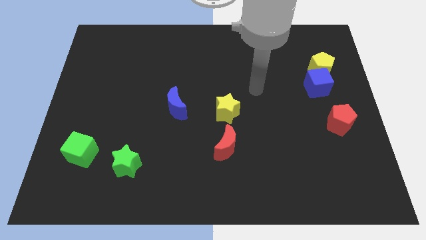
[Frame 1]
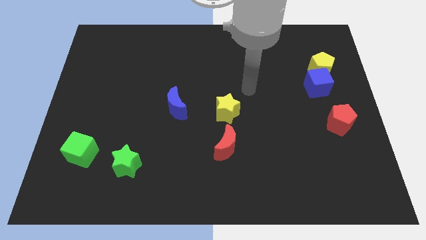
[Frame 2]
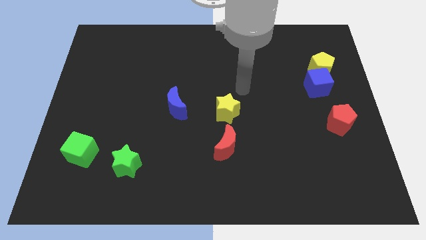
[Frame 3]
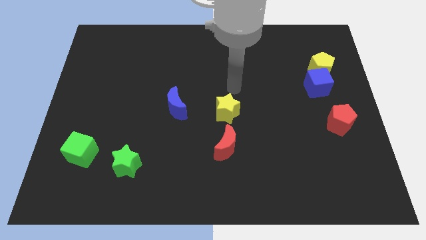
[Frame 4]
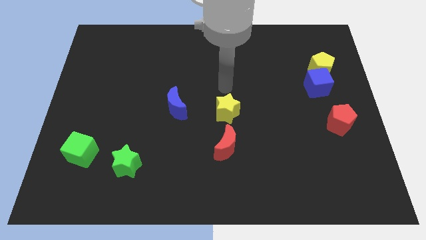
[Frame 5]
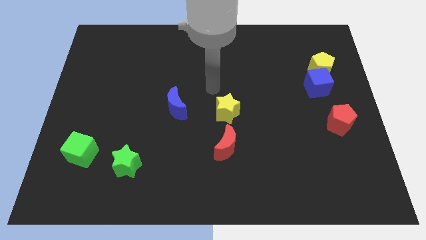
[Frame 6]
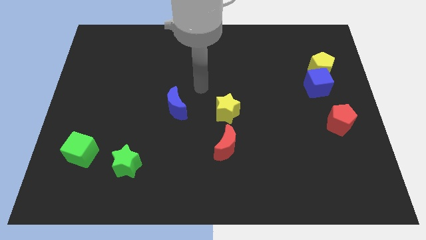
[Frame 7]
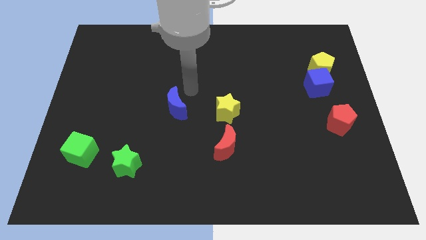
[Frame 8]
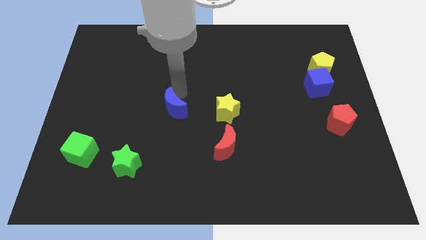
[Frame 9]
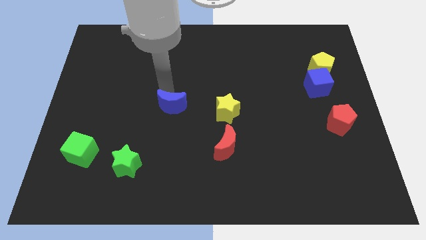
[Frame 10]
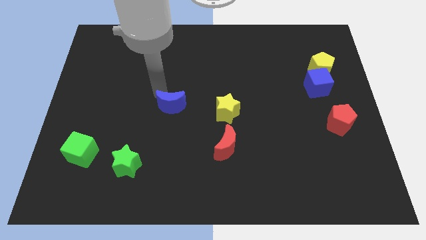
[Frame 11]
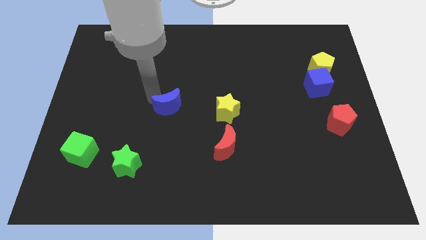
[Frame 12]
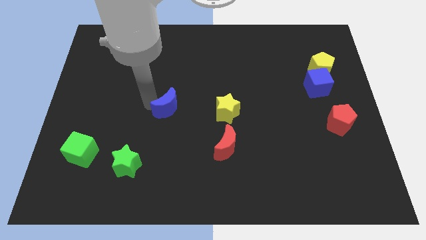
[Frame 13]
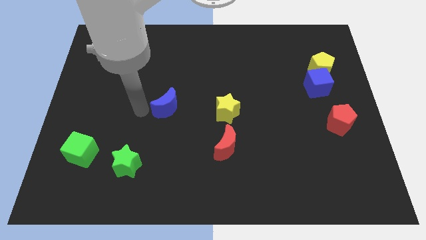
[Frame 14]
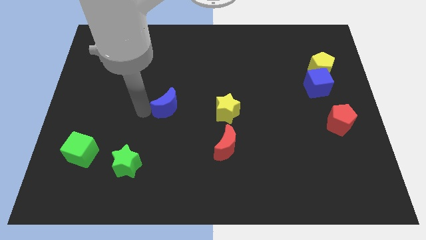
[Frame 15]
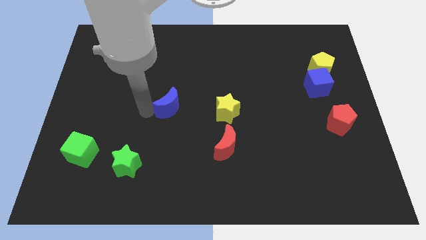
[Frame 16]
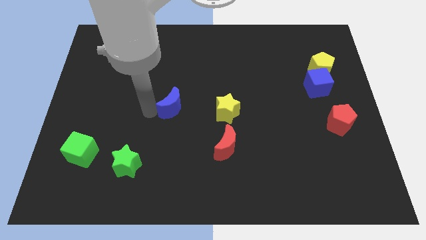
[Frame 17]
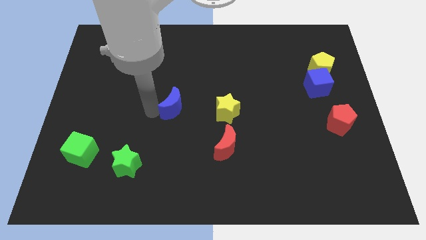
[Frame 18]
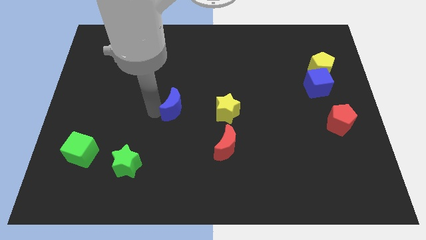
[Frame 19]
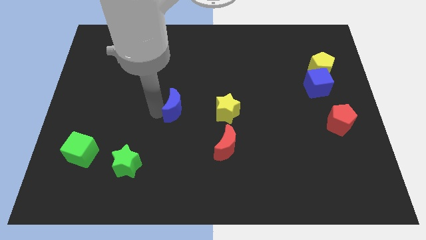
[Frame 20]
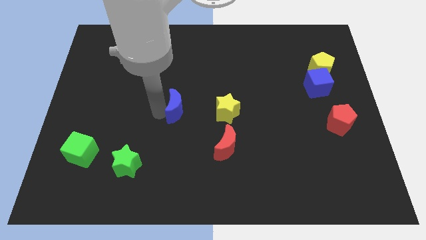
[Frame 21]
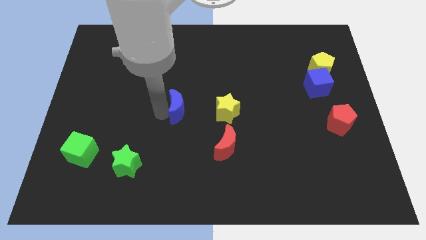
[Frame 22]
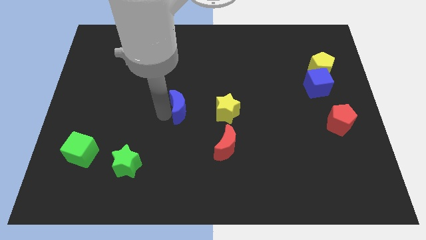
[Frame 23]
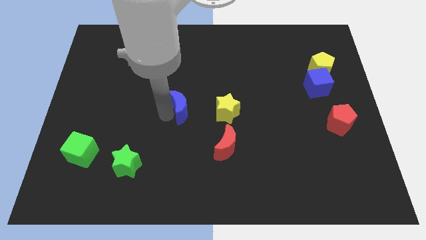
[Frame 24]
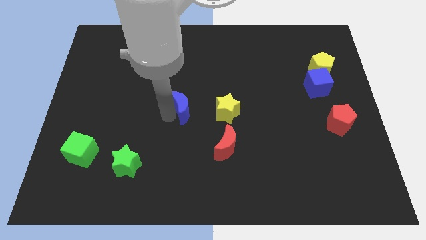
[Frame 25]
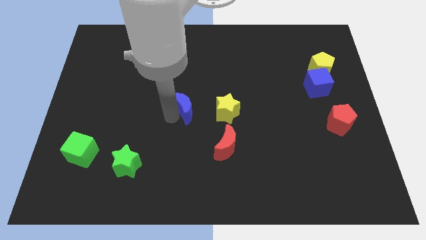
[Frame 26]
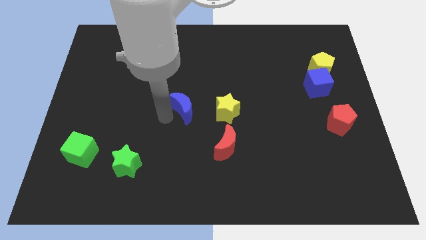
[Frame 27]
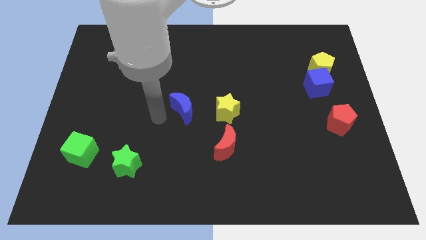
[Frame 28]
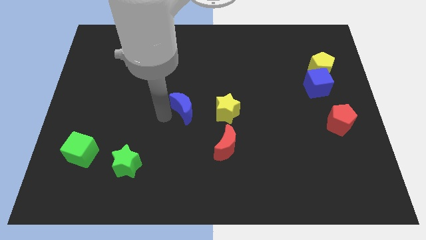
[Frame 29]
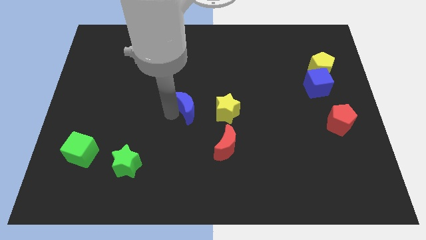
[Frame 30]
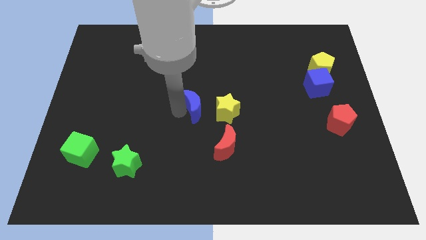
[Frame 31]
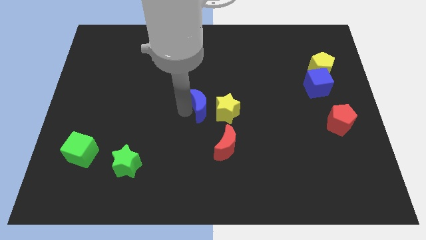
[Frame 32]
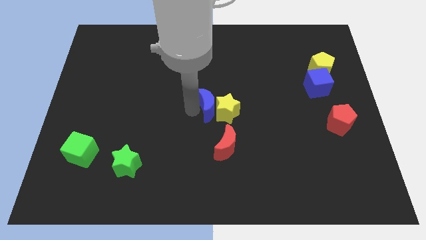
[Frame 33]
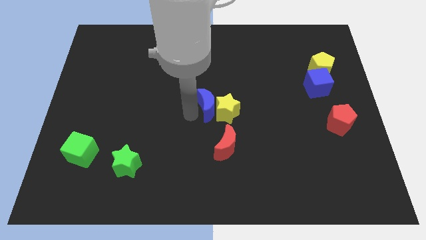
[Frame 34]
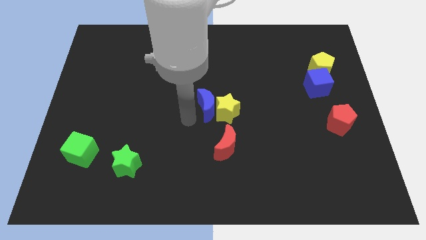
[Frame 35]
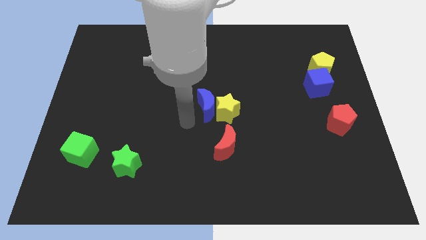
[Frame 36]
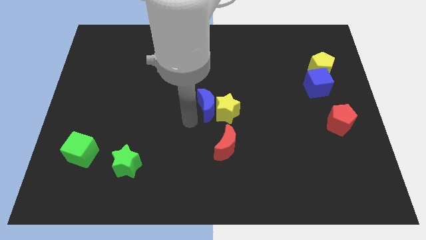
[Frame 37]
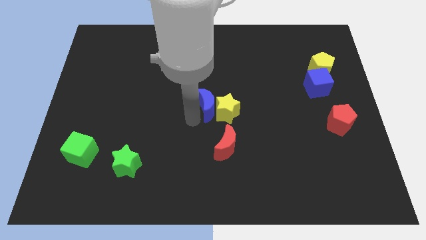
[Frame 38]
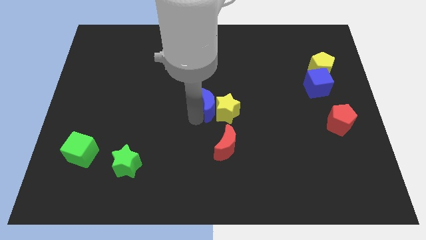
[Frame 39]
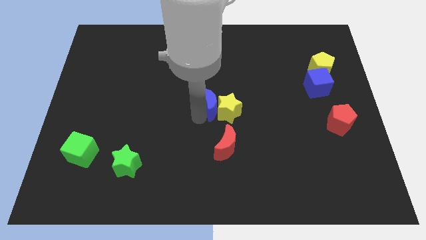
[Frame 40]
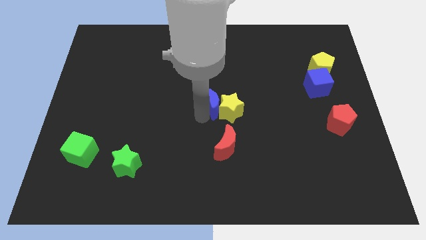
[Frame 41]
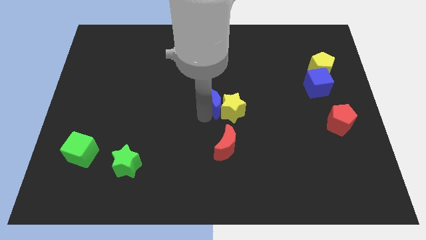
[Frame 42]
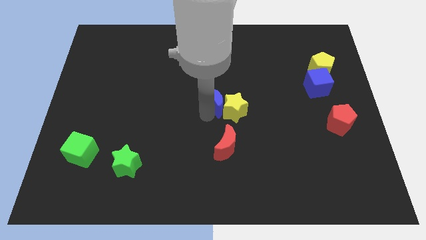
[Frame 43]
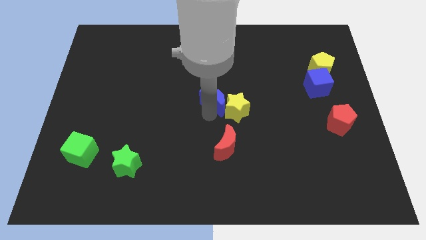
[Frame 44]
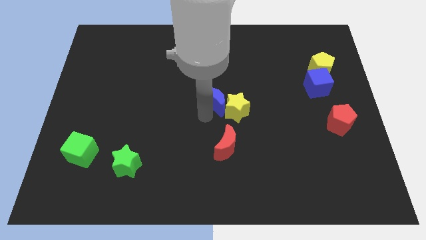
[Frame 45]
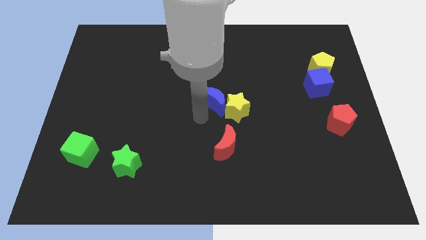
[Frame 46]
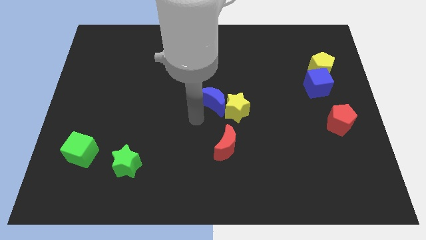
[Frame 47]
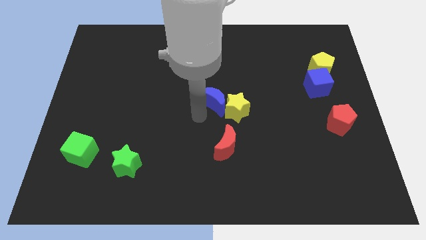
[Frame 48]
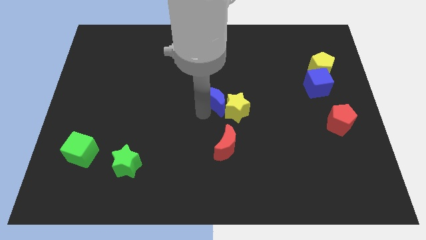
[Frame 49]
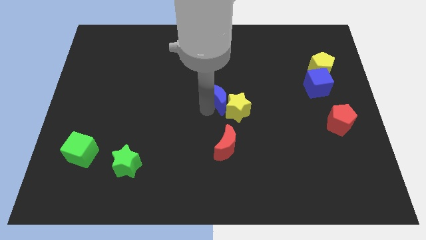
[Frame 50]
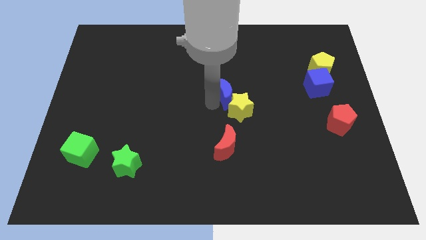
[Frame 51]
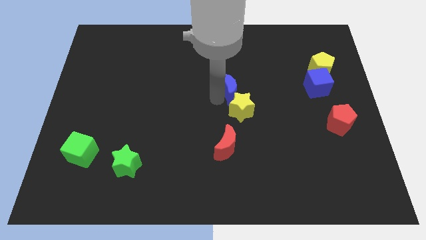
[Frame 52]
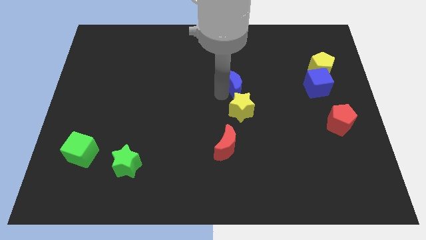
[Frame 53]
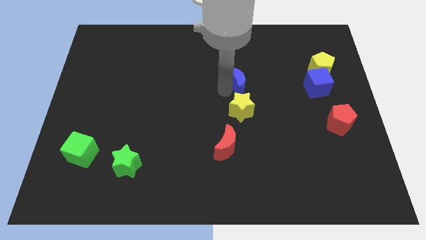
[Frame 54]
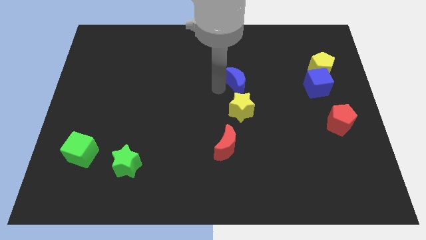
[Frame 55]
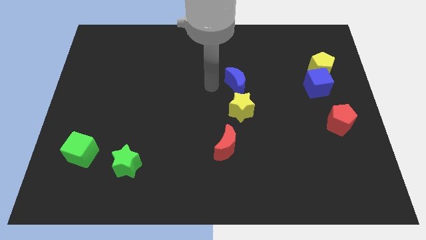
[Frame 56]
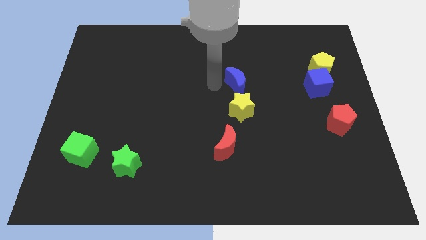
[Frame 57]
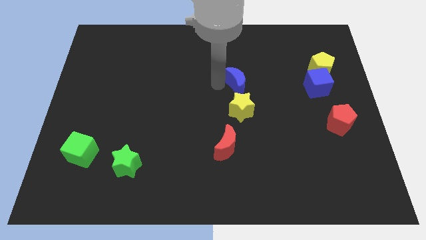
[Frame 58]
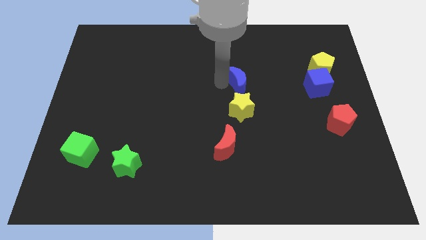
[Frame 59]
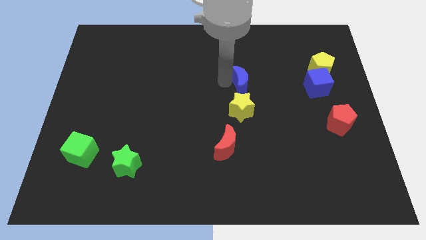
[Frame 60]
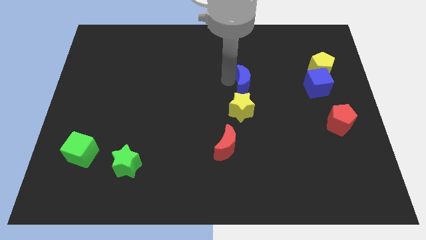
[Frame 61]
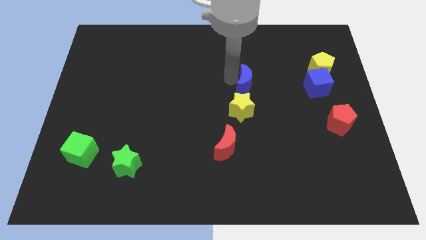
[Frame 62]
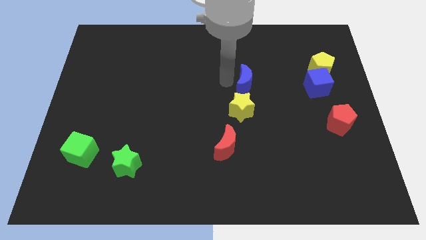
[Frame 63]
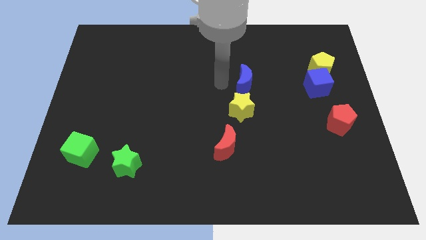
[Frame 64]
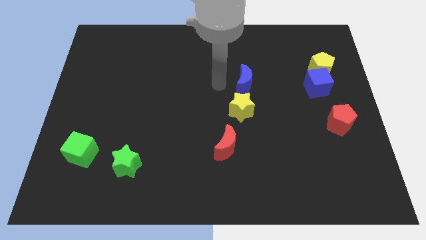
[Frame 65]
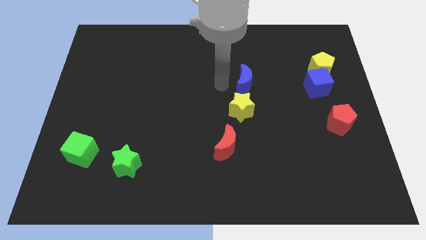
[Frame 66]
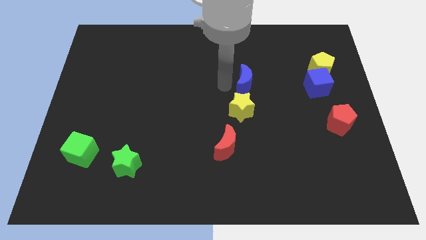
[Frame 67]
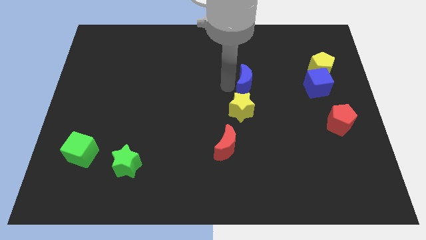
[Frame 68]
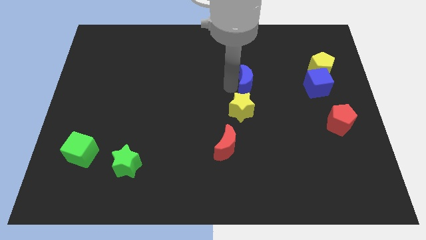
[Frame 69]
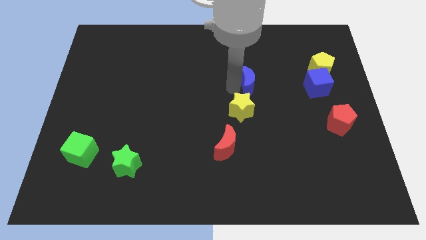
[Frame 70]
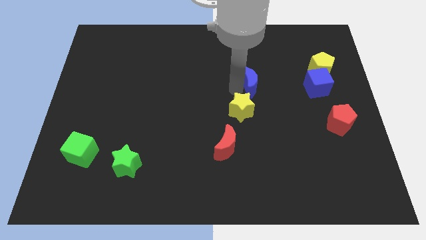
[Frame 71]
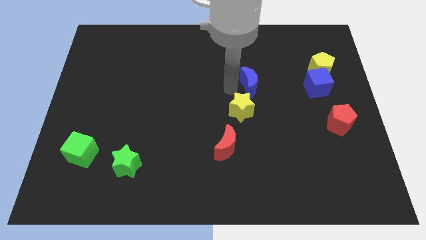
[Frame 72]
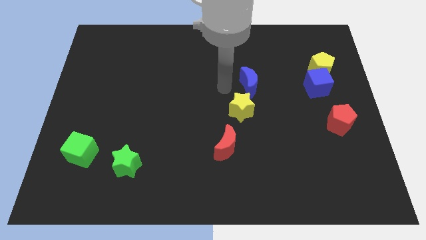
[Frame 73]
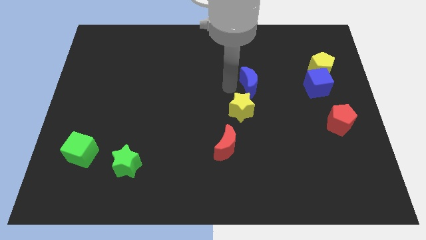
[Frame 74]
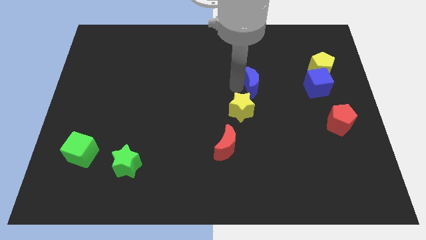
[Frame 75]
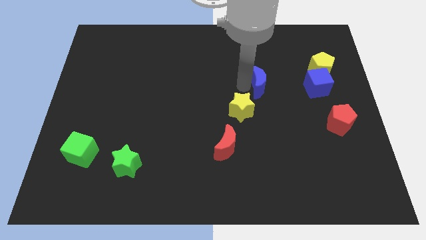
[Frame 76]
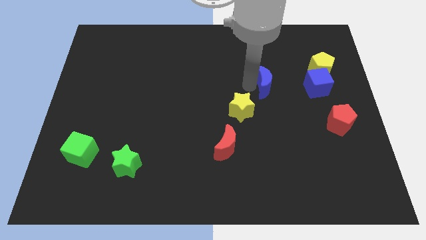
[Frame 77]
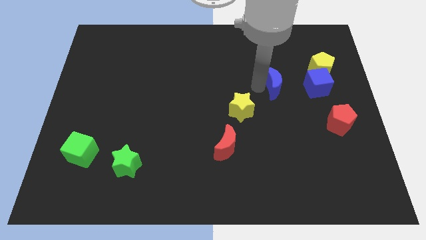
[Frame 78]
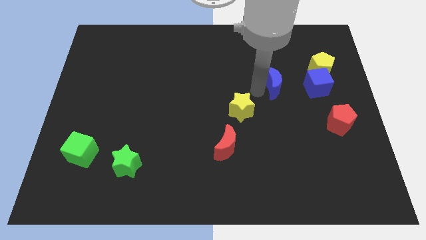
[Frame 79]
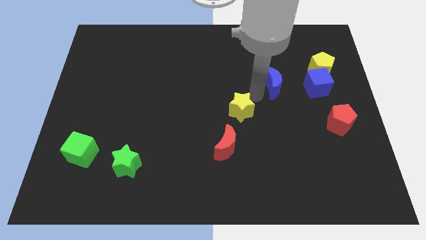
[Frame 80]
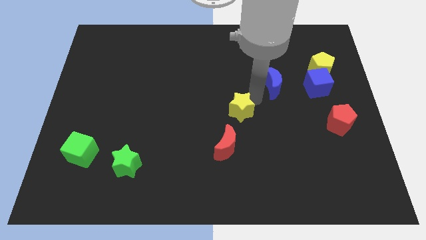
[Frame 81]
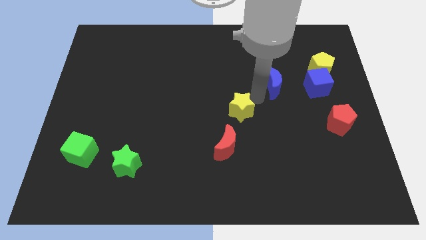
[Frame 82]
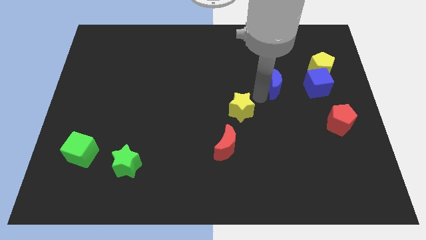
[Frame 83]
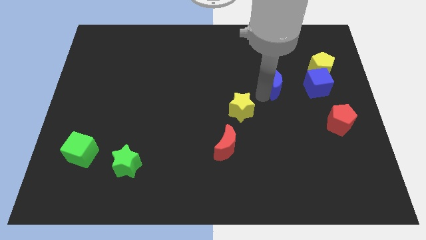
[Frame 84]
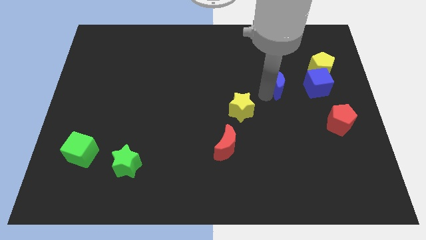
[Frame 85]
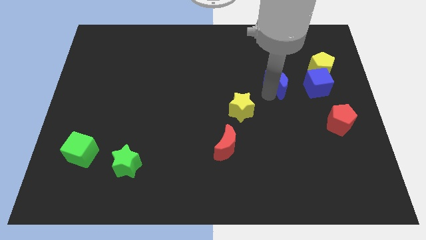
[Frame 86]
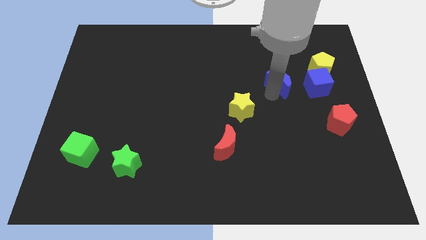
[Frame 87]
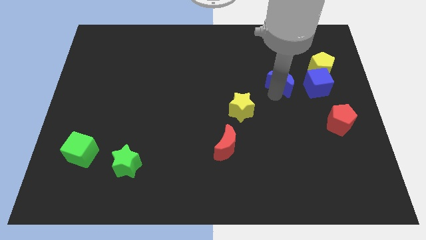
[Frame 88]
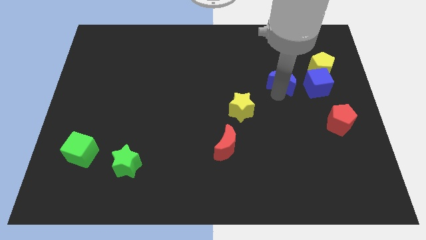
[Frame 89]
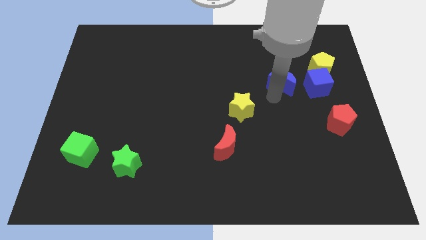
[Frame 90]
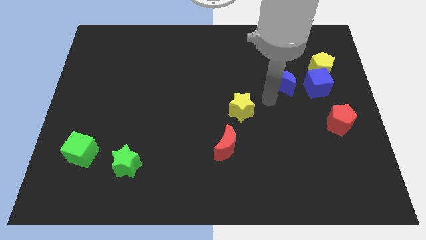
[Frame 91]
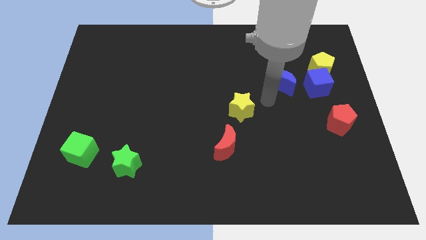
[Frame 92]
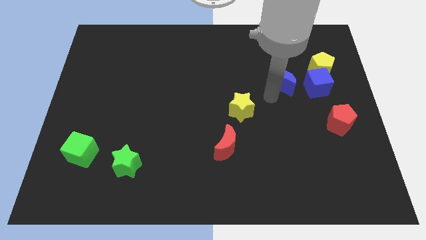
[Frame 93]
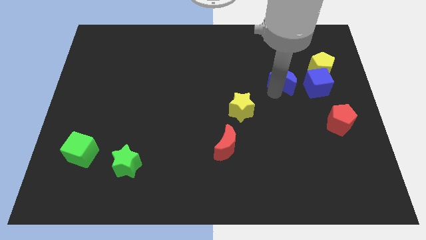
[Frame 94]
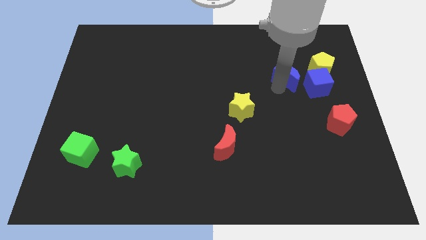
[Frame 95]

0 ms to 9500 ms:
slide the blue moon diagonally up and to the left of the blue cube
